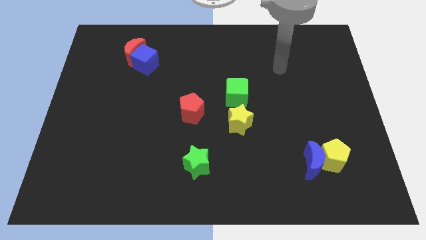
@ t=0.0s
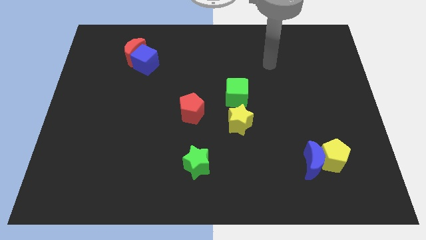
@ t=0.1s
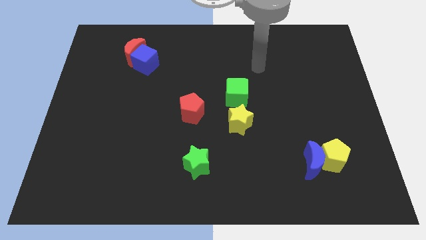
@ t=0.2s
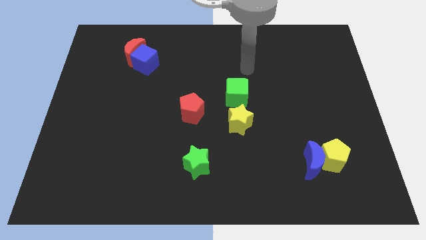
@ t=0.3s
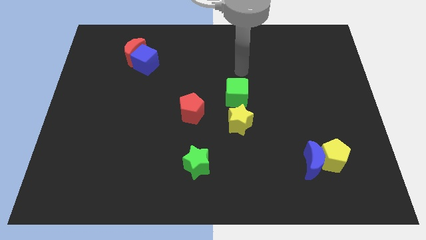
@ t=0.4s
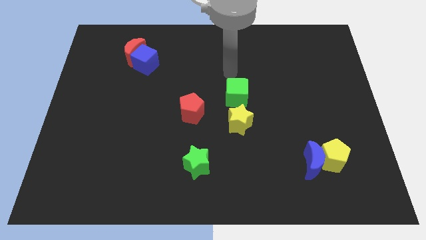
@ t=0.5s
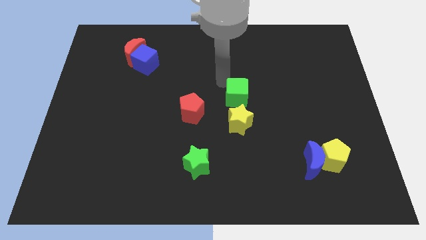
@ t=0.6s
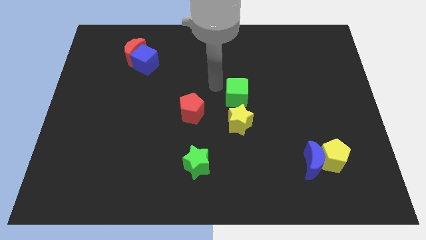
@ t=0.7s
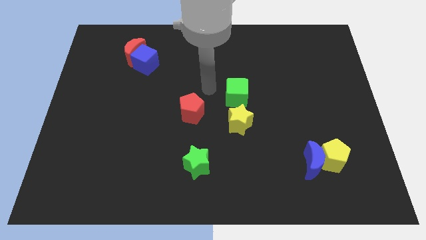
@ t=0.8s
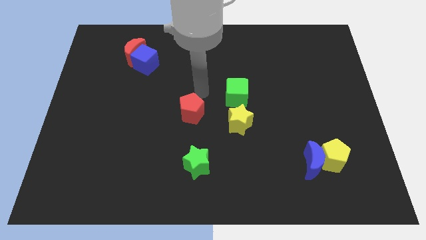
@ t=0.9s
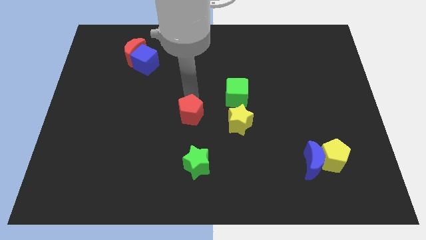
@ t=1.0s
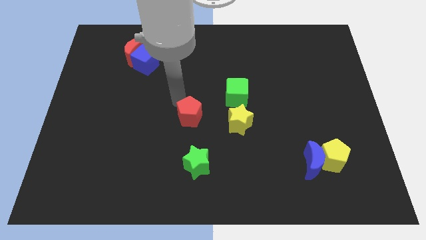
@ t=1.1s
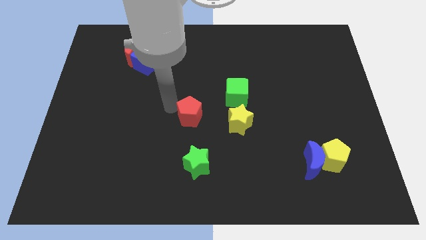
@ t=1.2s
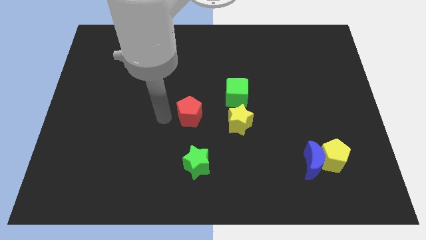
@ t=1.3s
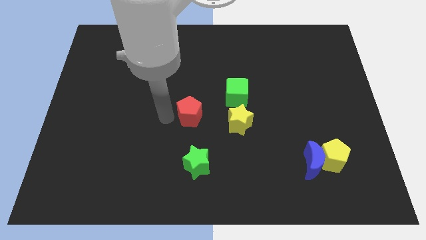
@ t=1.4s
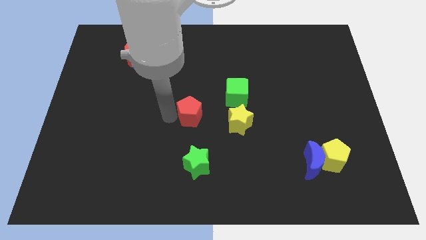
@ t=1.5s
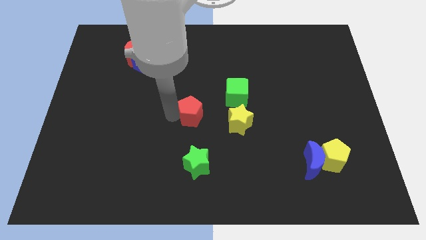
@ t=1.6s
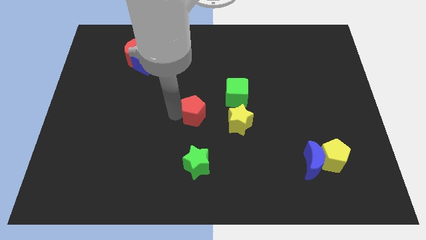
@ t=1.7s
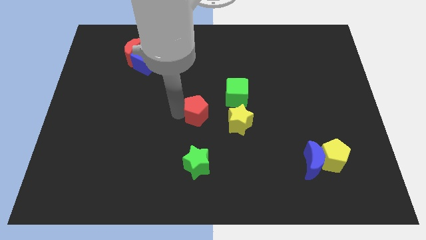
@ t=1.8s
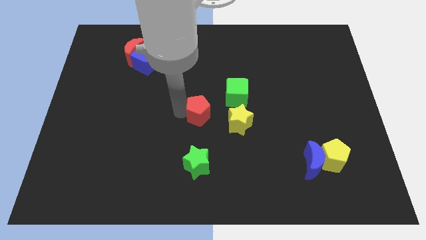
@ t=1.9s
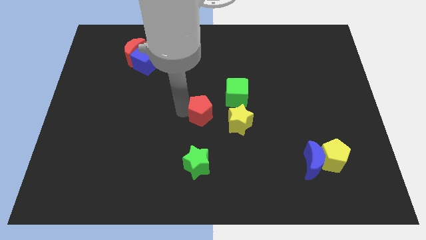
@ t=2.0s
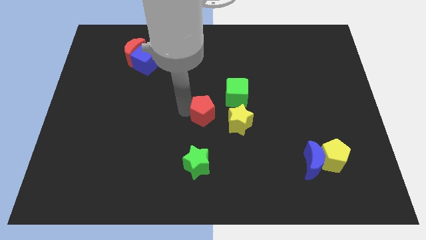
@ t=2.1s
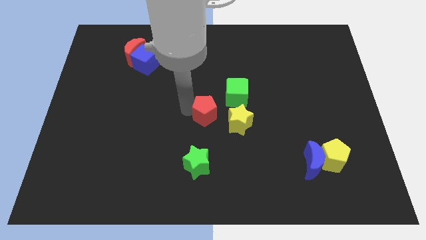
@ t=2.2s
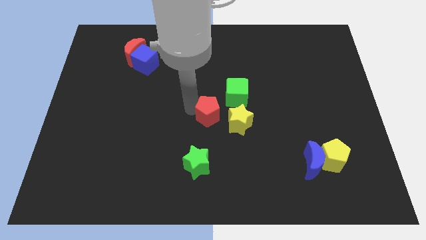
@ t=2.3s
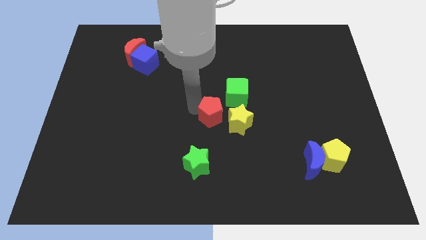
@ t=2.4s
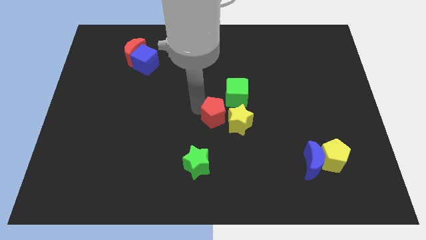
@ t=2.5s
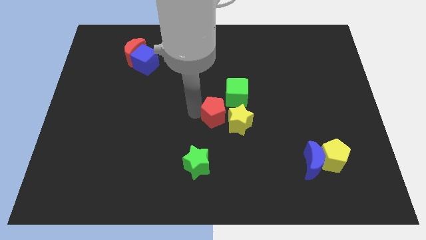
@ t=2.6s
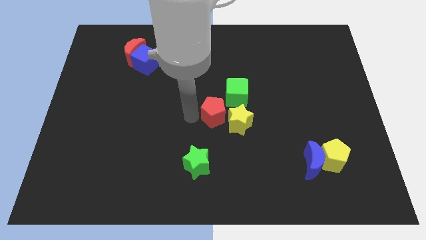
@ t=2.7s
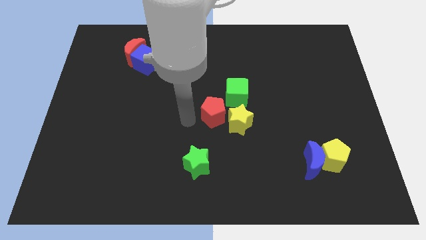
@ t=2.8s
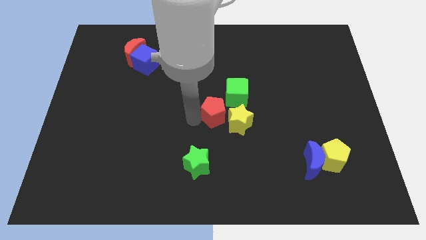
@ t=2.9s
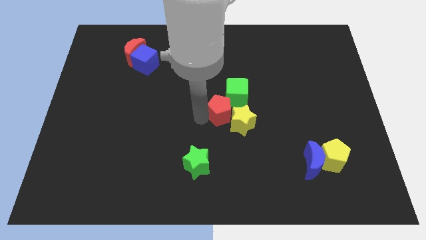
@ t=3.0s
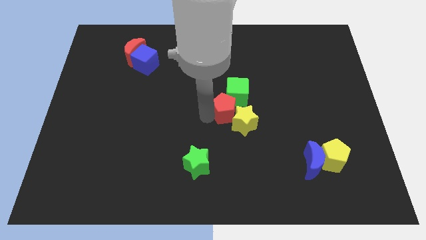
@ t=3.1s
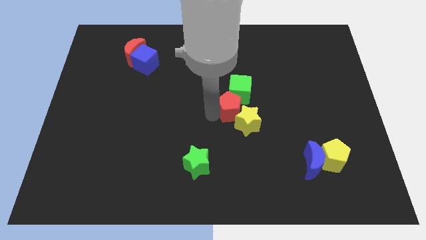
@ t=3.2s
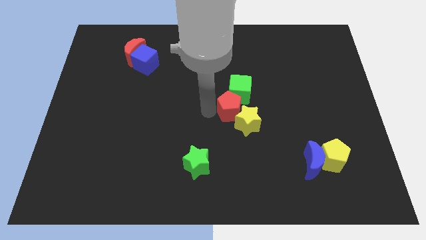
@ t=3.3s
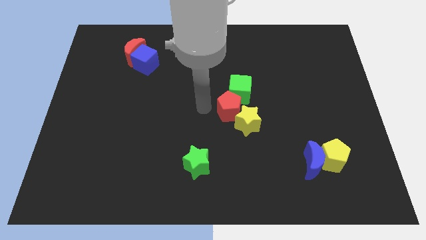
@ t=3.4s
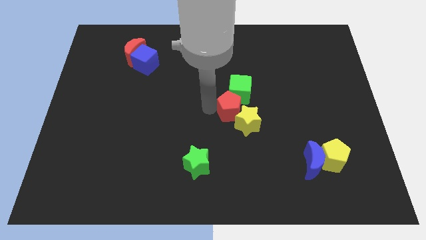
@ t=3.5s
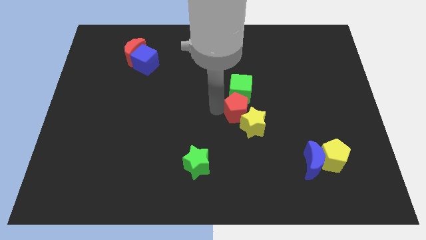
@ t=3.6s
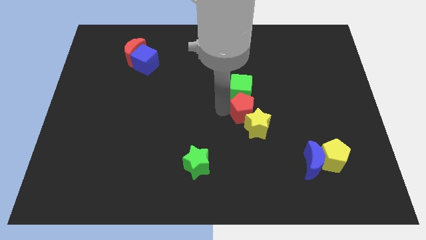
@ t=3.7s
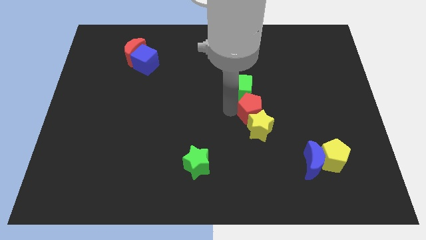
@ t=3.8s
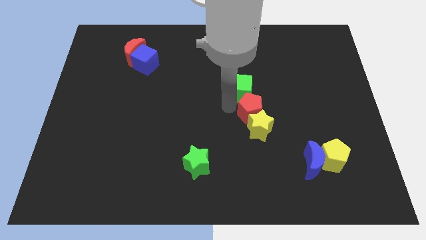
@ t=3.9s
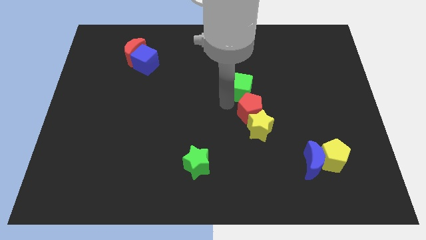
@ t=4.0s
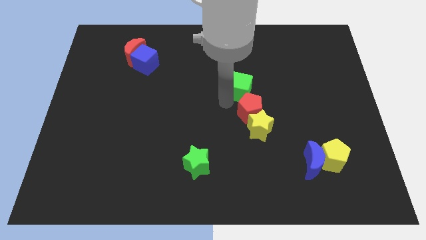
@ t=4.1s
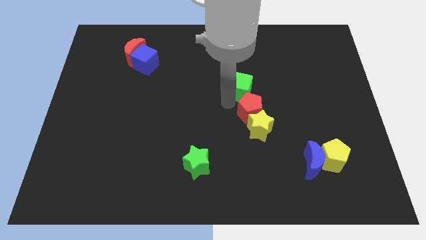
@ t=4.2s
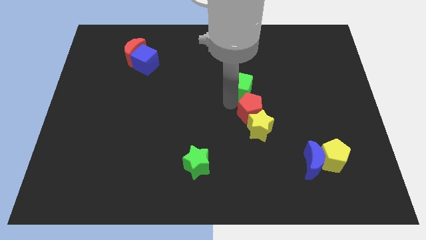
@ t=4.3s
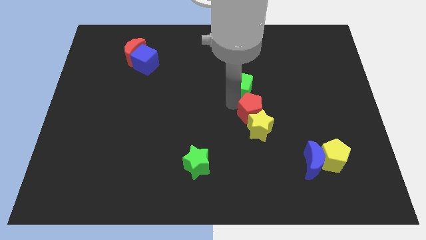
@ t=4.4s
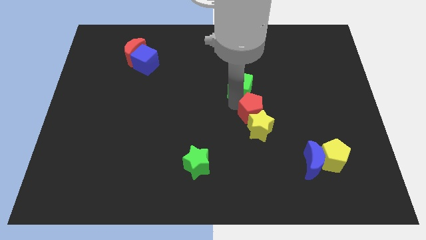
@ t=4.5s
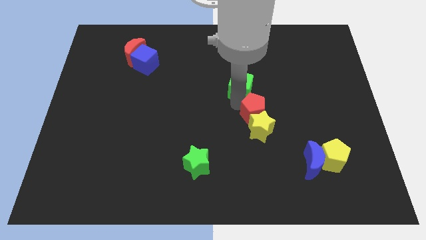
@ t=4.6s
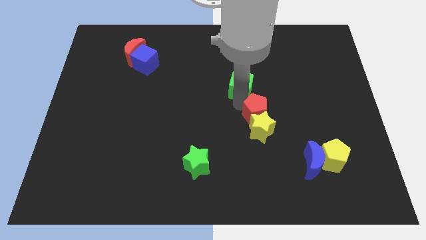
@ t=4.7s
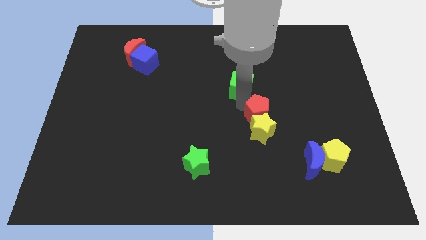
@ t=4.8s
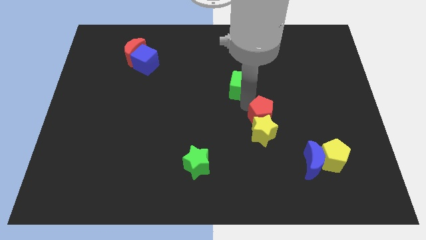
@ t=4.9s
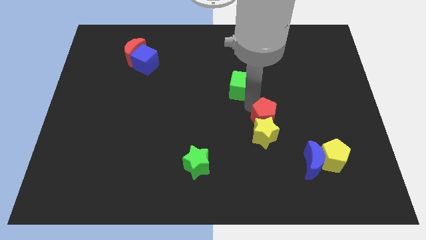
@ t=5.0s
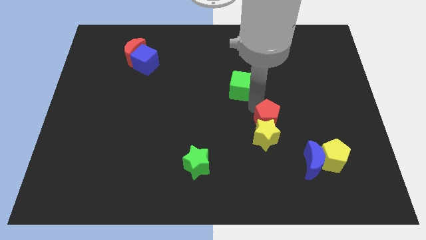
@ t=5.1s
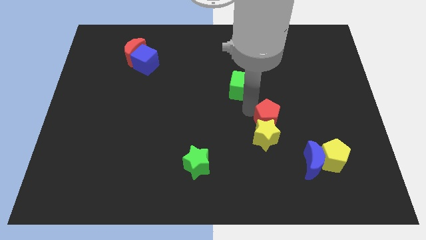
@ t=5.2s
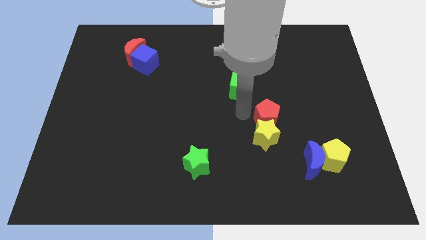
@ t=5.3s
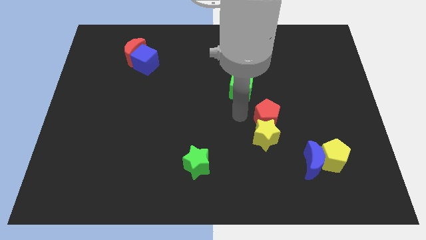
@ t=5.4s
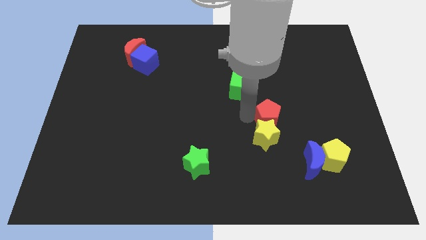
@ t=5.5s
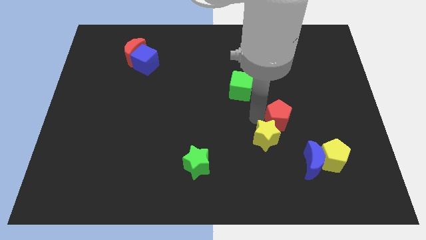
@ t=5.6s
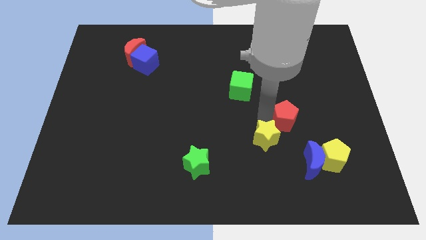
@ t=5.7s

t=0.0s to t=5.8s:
move the red pentagon to the top of the blue moon

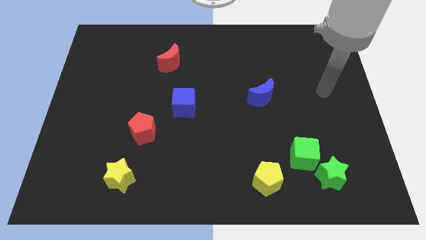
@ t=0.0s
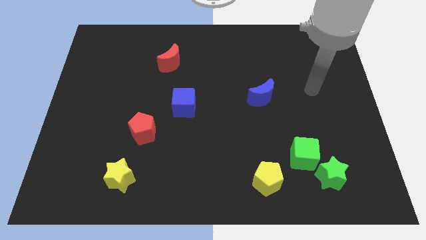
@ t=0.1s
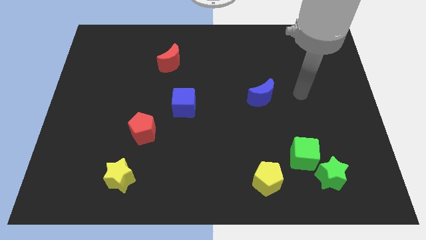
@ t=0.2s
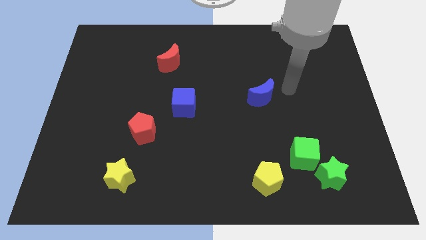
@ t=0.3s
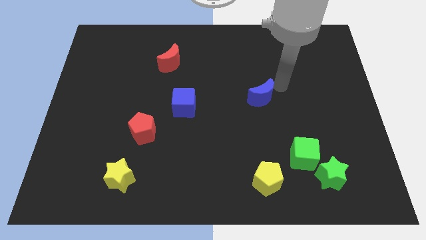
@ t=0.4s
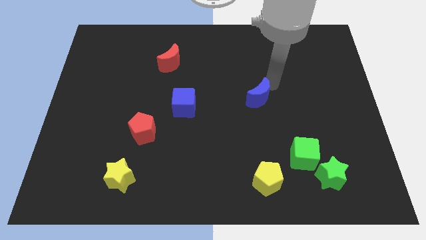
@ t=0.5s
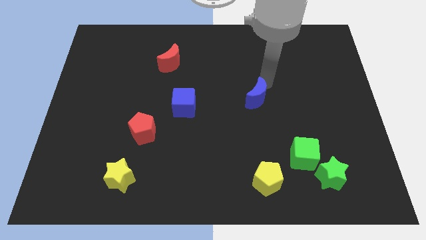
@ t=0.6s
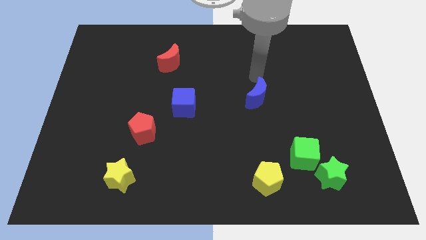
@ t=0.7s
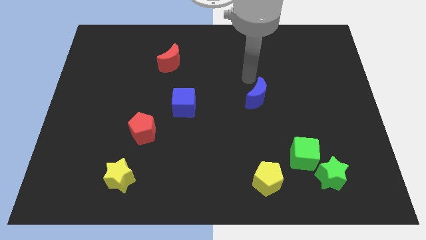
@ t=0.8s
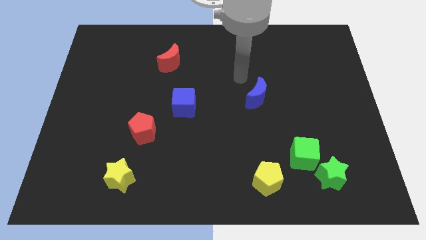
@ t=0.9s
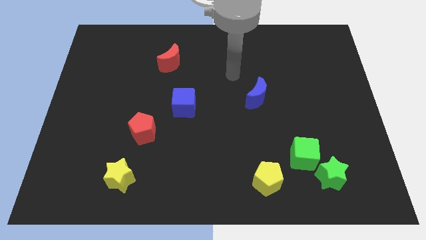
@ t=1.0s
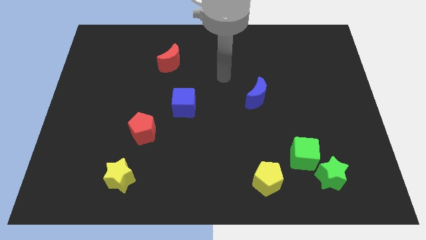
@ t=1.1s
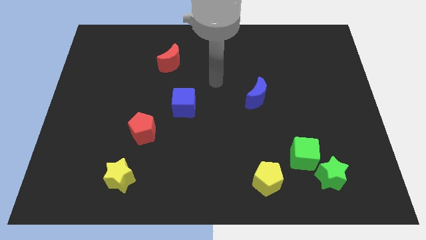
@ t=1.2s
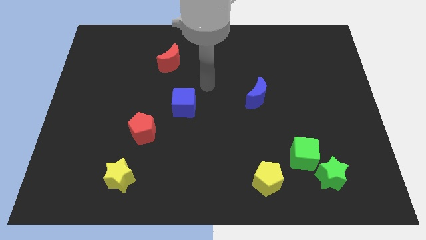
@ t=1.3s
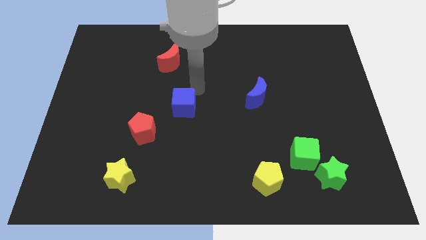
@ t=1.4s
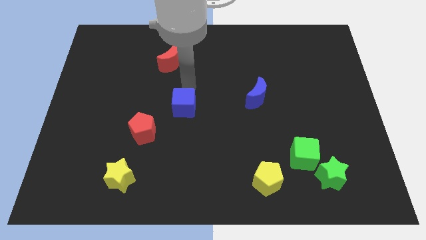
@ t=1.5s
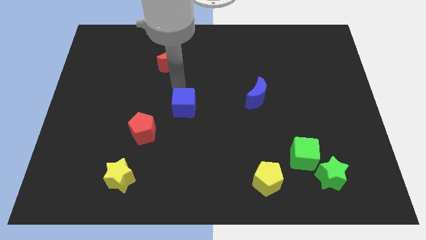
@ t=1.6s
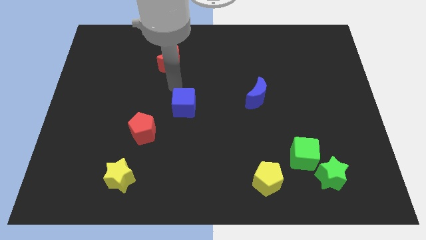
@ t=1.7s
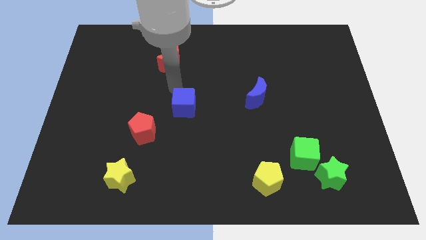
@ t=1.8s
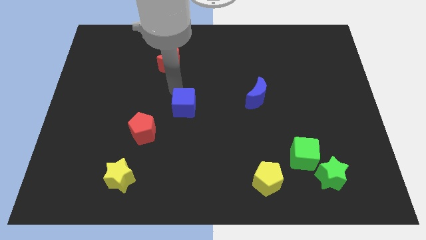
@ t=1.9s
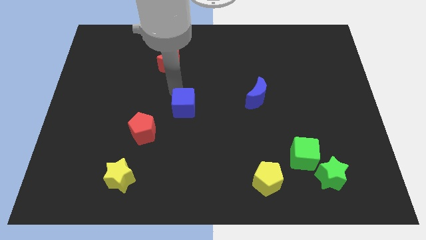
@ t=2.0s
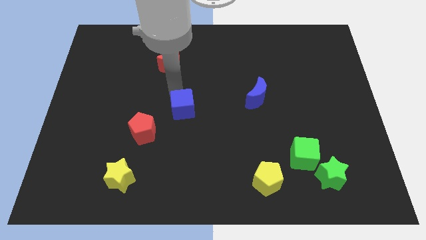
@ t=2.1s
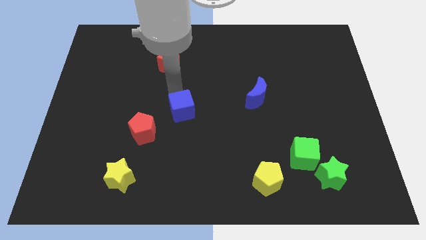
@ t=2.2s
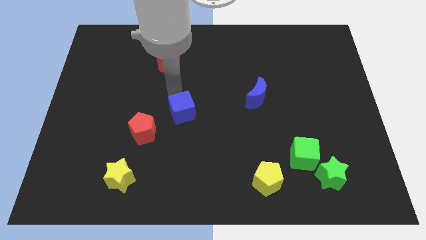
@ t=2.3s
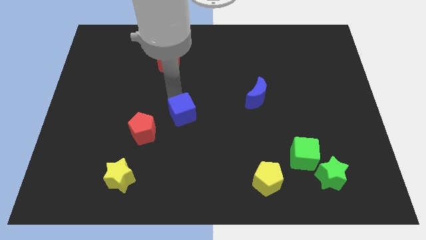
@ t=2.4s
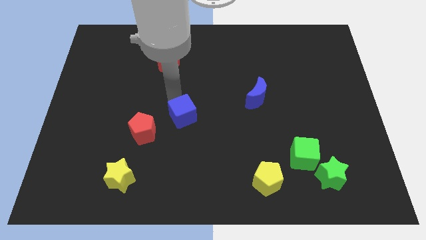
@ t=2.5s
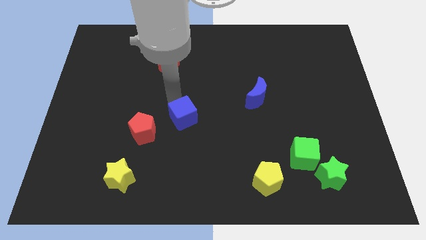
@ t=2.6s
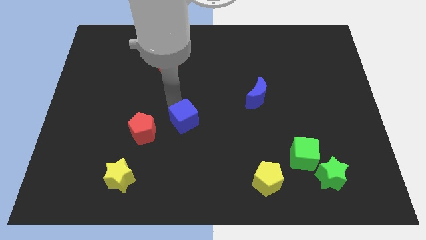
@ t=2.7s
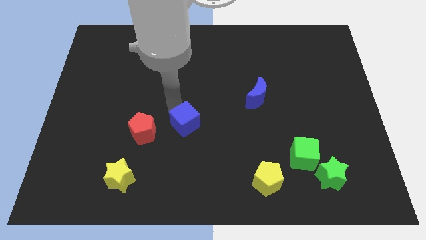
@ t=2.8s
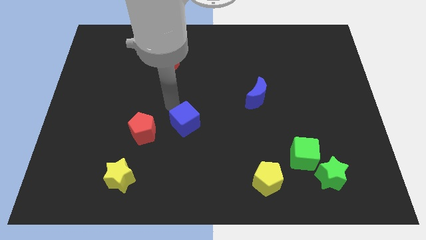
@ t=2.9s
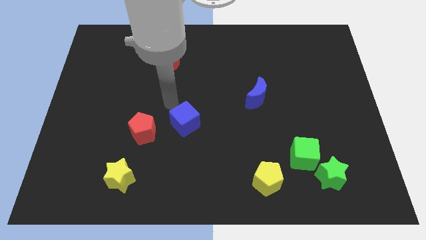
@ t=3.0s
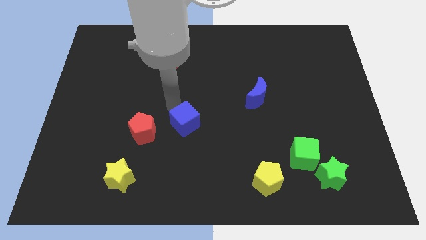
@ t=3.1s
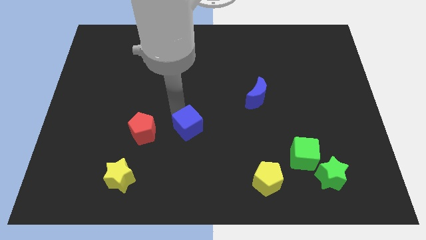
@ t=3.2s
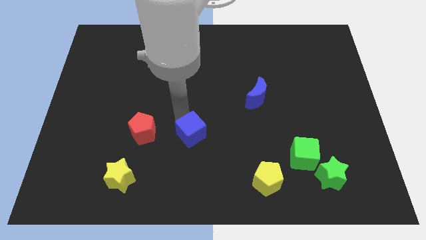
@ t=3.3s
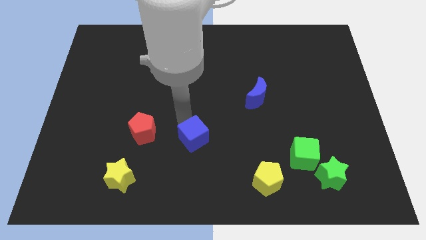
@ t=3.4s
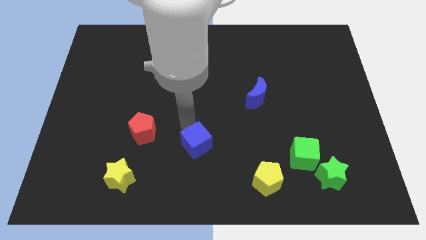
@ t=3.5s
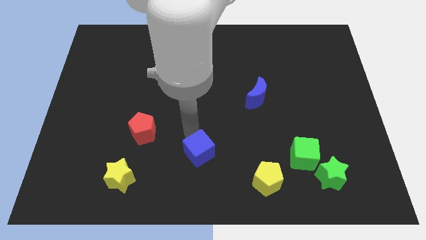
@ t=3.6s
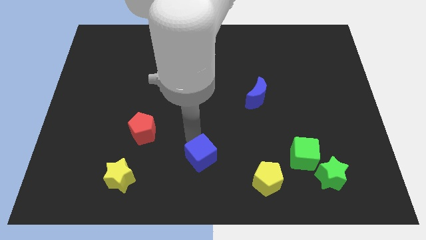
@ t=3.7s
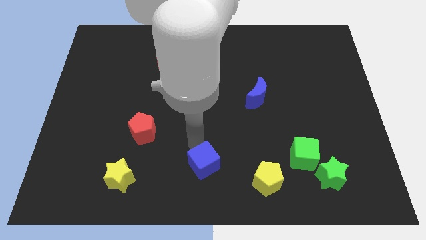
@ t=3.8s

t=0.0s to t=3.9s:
put the blue cube to the left side of the yellow pentagon
